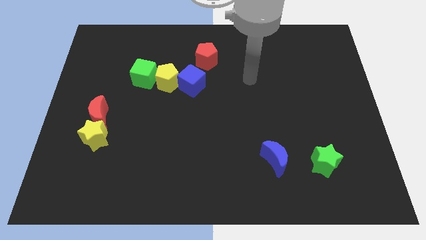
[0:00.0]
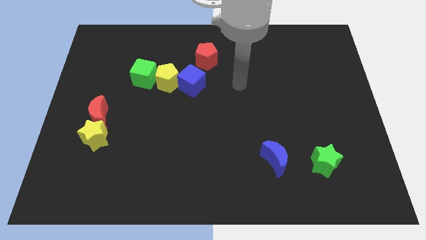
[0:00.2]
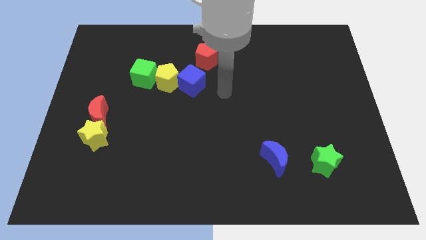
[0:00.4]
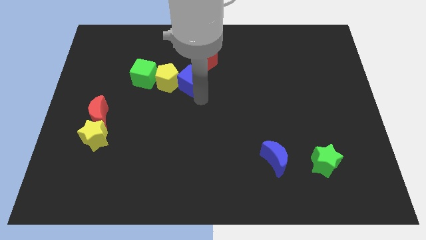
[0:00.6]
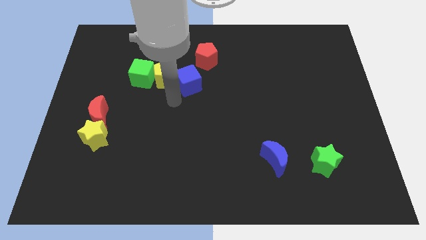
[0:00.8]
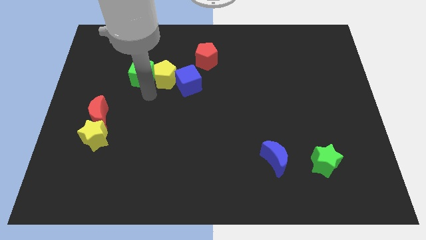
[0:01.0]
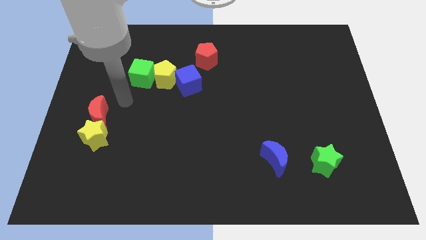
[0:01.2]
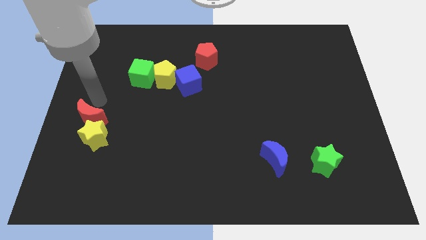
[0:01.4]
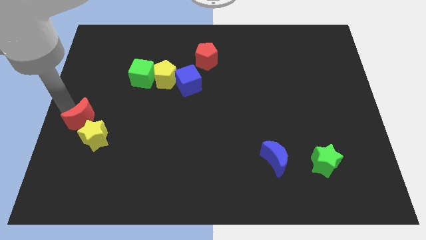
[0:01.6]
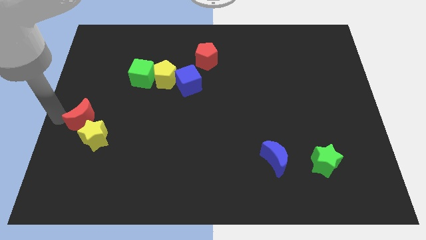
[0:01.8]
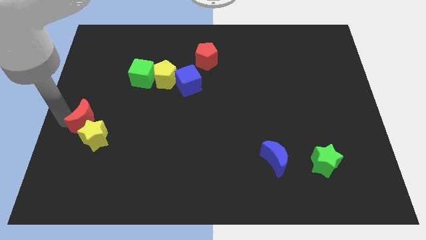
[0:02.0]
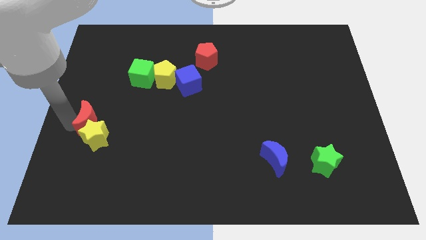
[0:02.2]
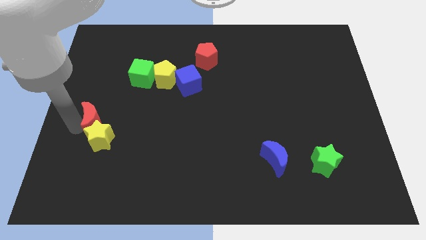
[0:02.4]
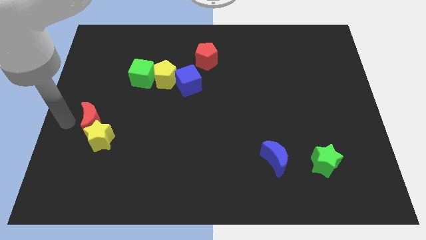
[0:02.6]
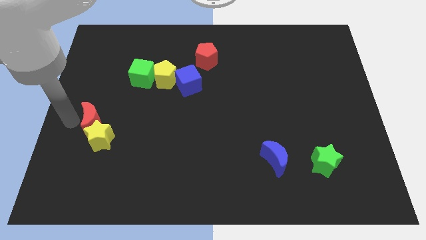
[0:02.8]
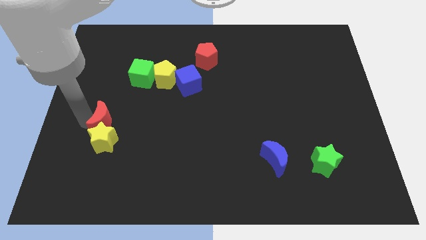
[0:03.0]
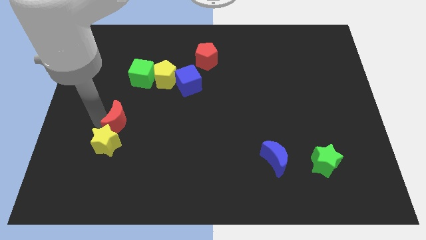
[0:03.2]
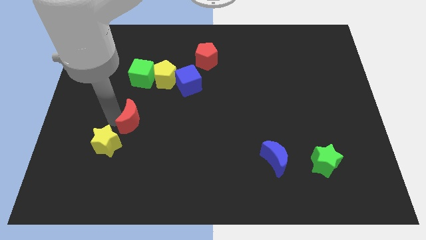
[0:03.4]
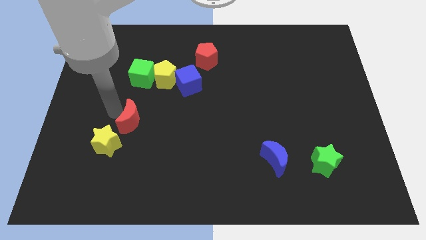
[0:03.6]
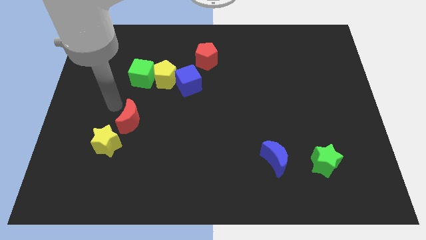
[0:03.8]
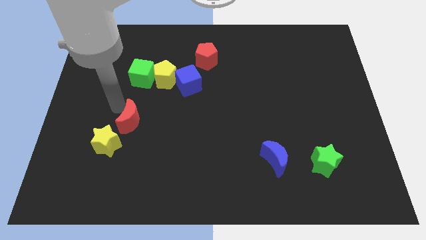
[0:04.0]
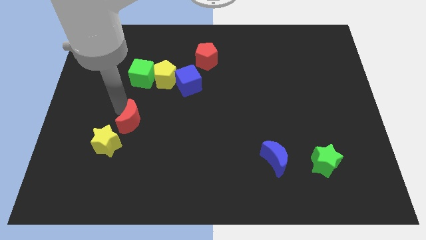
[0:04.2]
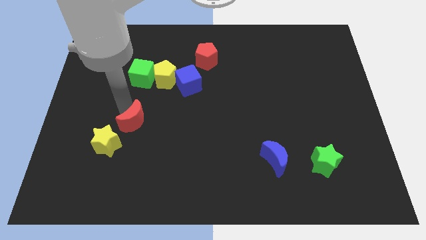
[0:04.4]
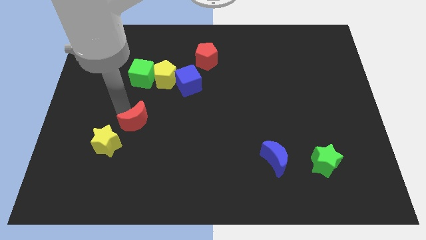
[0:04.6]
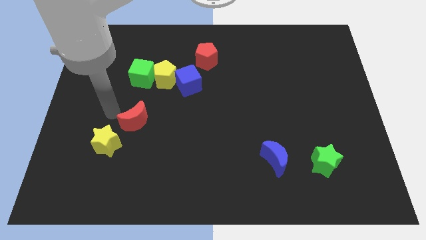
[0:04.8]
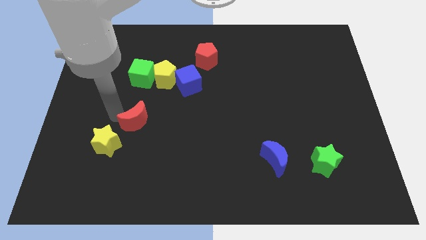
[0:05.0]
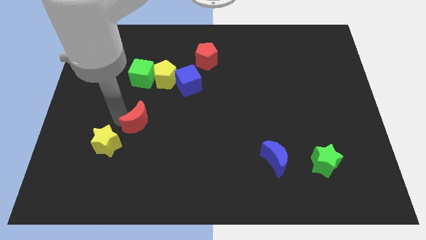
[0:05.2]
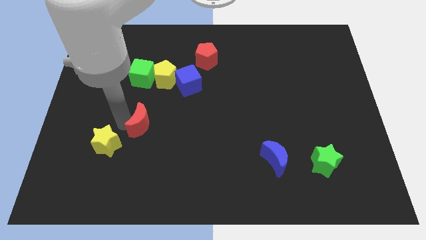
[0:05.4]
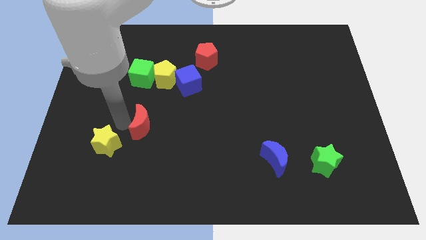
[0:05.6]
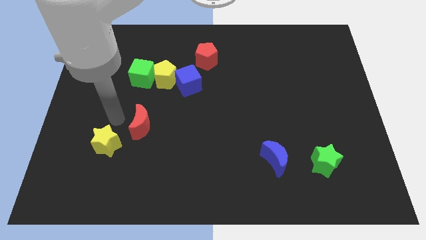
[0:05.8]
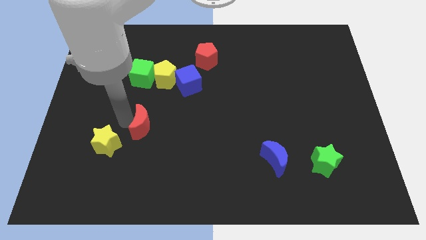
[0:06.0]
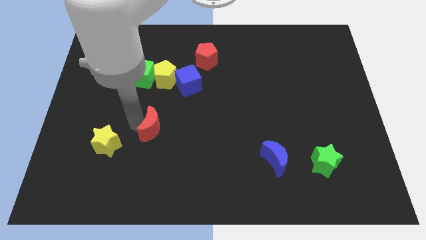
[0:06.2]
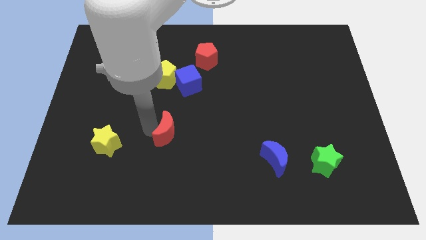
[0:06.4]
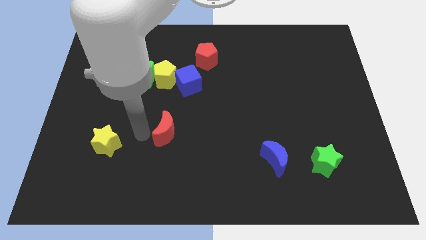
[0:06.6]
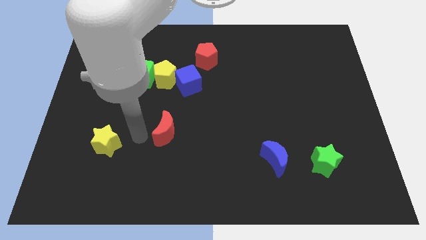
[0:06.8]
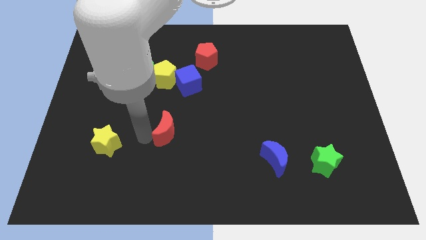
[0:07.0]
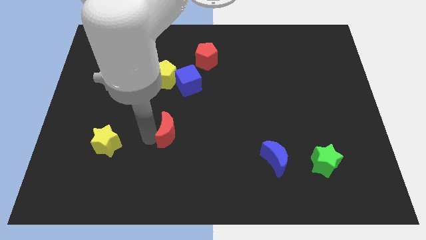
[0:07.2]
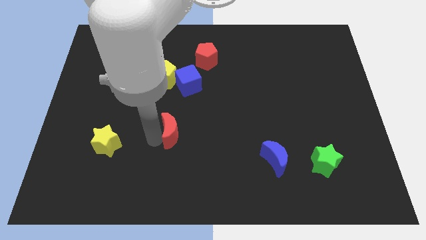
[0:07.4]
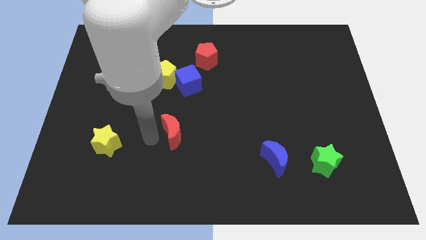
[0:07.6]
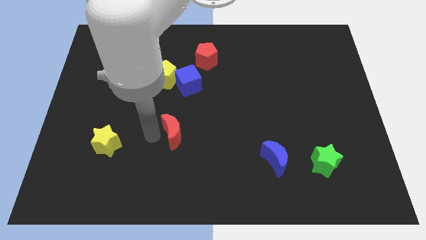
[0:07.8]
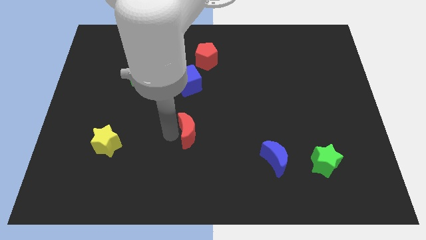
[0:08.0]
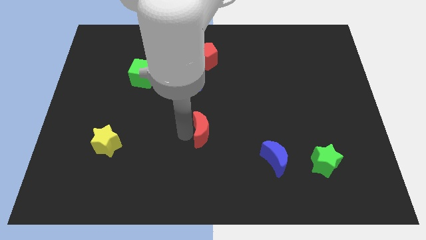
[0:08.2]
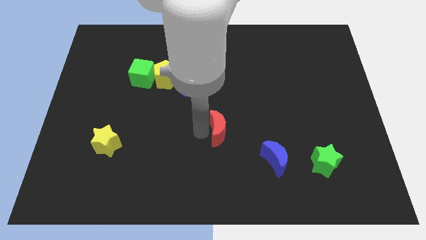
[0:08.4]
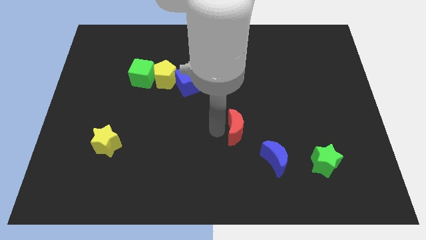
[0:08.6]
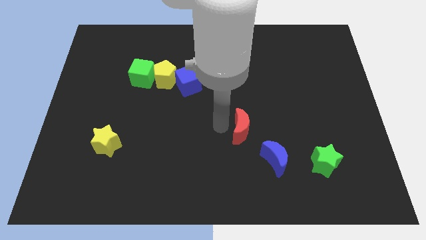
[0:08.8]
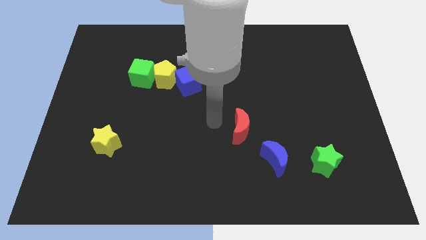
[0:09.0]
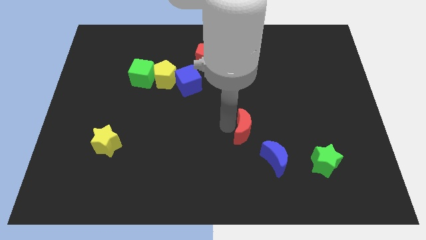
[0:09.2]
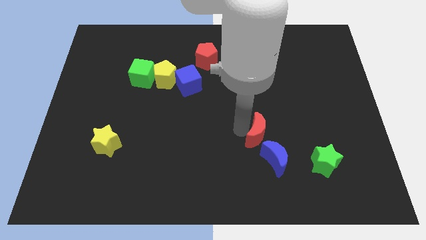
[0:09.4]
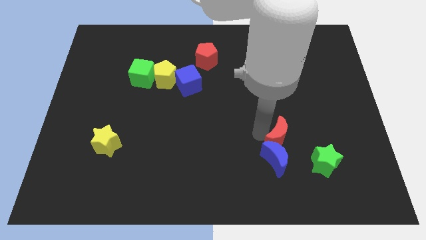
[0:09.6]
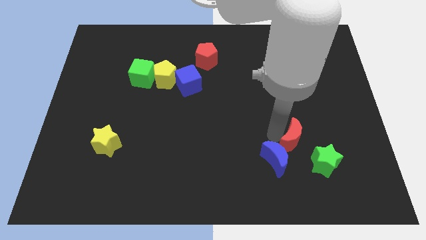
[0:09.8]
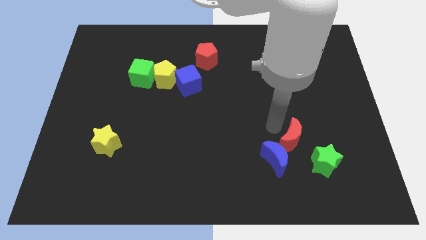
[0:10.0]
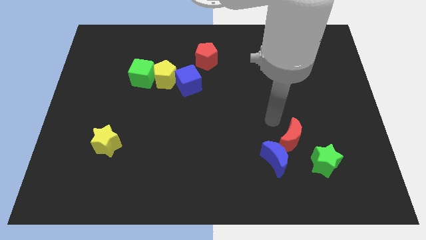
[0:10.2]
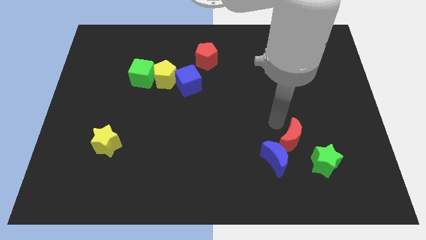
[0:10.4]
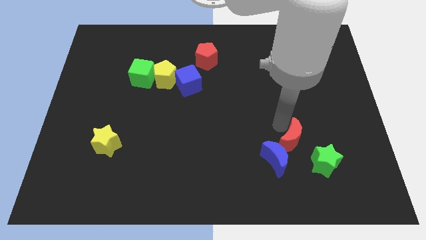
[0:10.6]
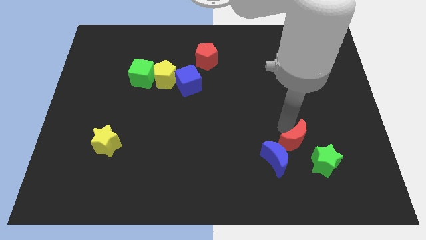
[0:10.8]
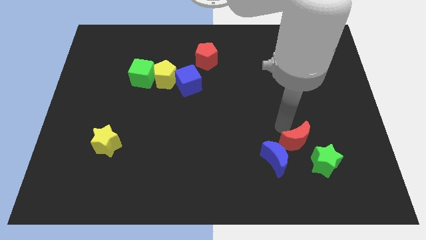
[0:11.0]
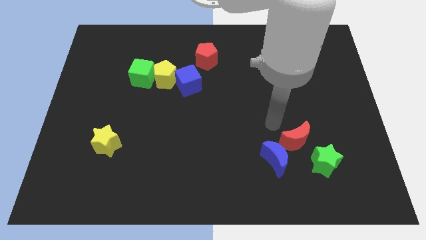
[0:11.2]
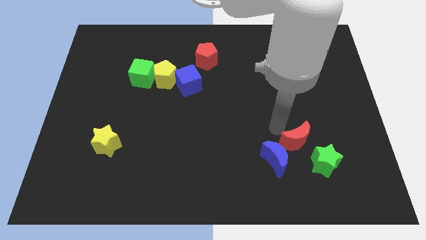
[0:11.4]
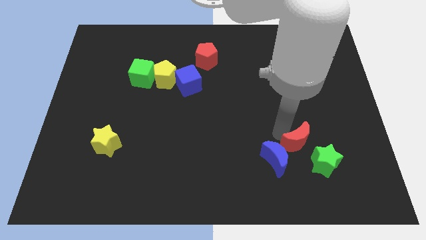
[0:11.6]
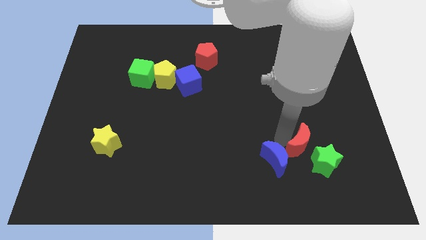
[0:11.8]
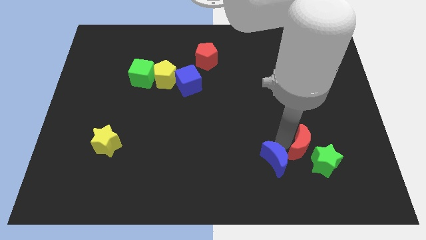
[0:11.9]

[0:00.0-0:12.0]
put the red moon next to the green star

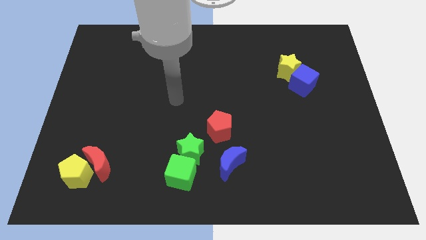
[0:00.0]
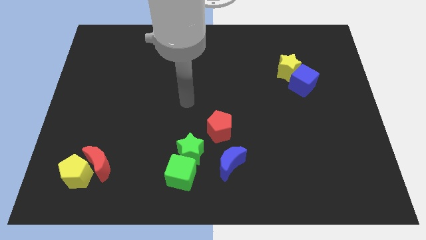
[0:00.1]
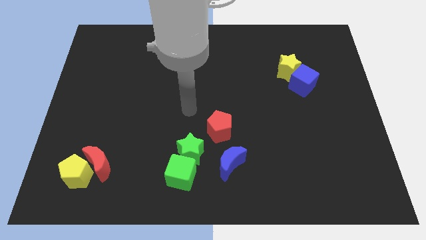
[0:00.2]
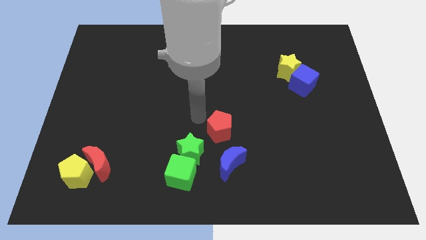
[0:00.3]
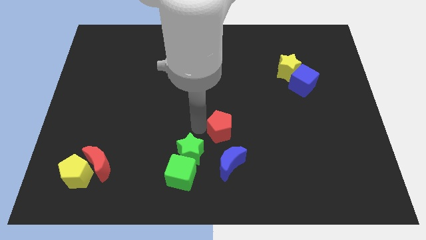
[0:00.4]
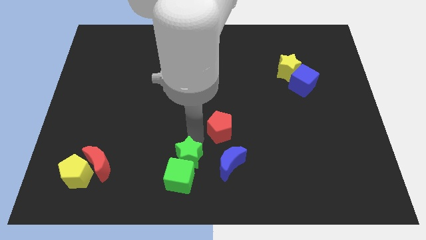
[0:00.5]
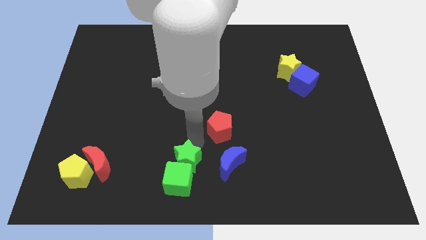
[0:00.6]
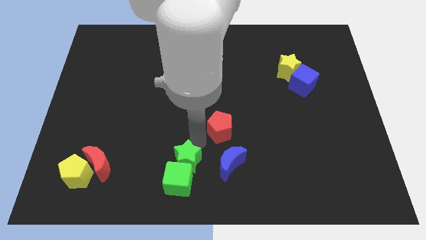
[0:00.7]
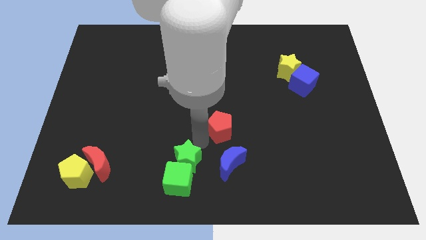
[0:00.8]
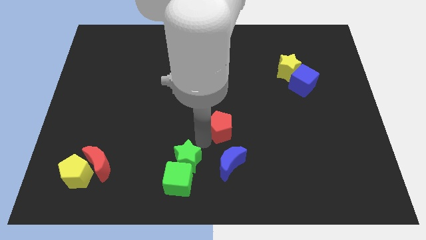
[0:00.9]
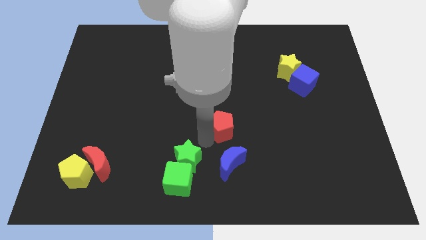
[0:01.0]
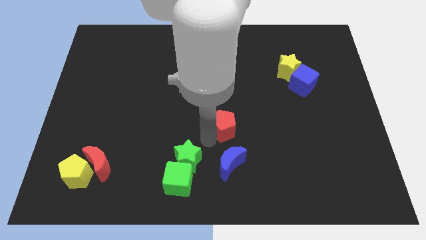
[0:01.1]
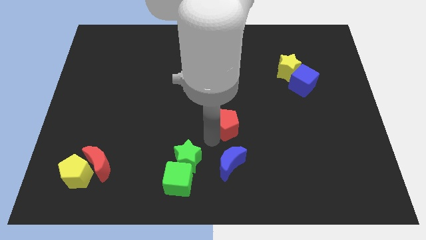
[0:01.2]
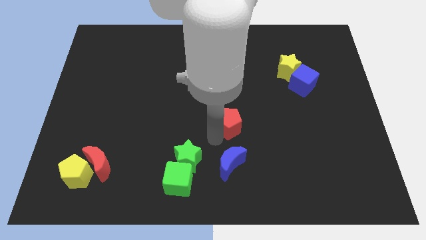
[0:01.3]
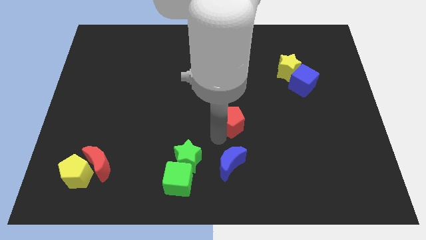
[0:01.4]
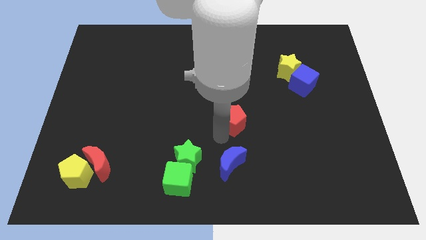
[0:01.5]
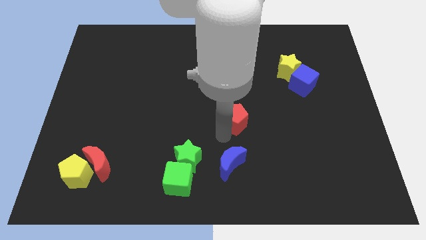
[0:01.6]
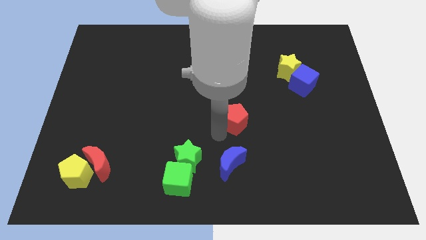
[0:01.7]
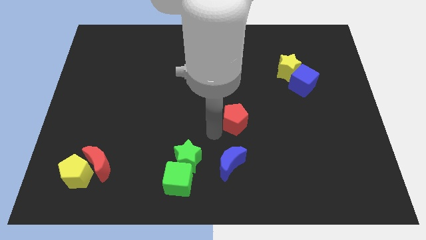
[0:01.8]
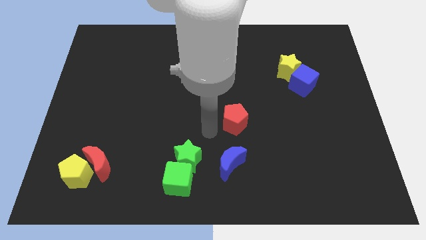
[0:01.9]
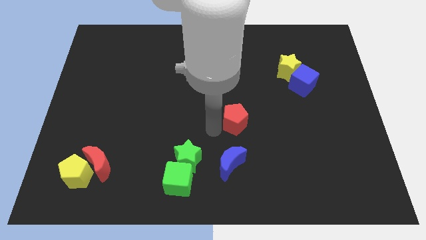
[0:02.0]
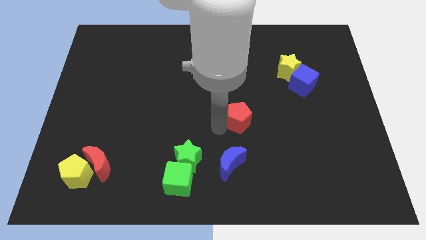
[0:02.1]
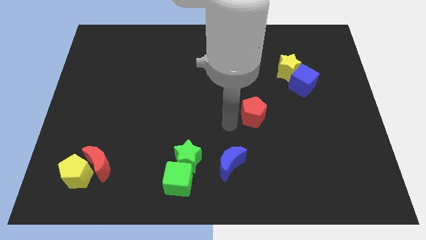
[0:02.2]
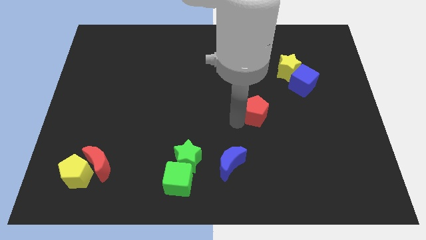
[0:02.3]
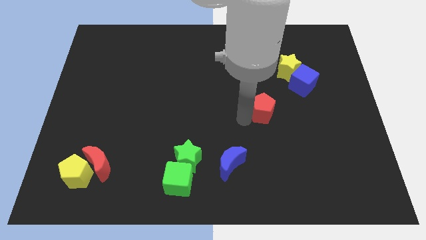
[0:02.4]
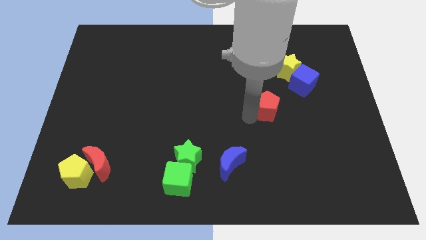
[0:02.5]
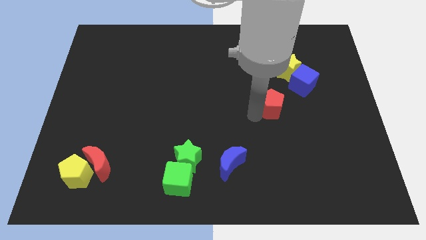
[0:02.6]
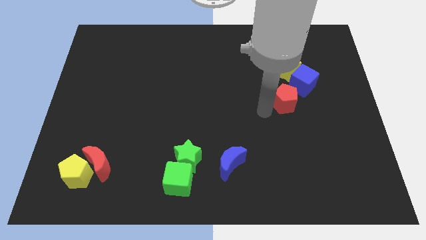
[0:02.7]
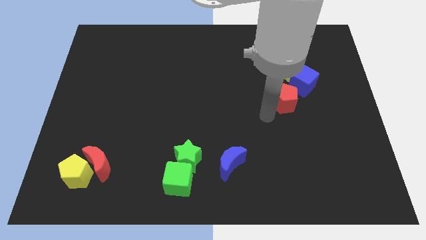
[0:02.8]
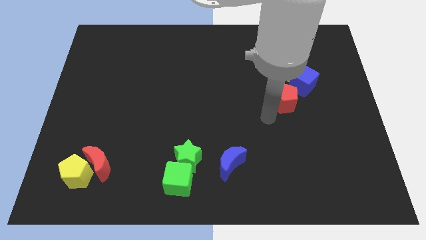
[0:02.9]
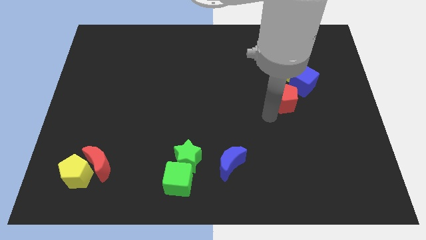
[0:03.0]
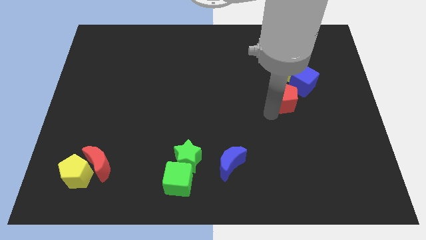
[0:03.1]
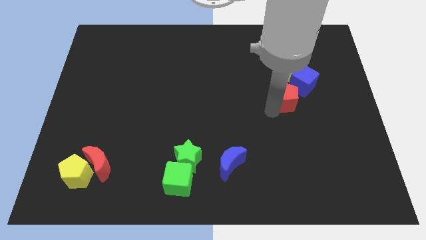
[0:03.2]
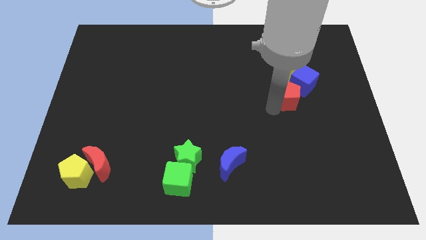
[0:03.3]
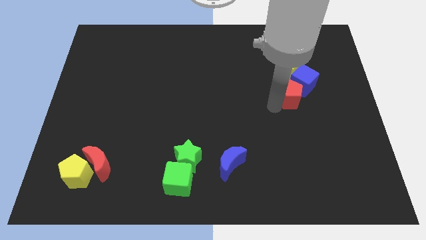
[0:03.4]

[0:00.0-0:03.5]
push the red pentagon towards the blue cube
